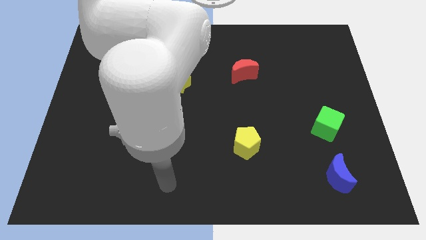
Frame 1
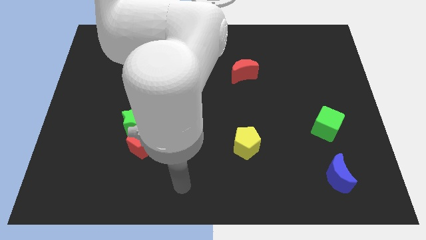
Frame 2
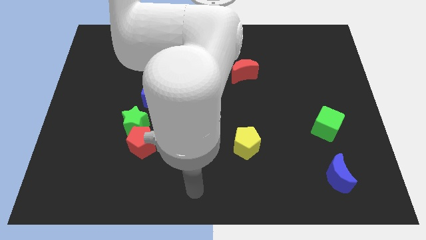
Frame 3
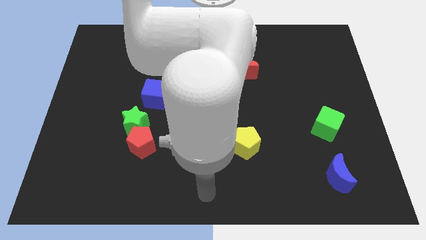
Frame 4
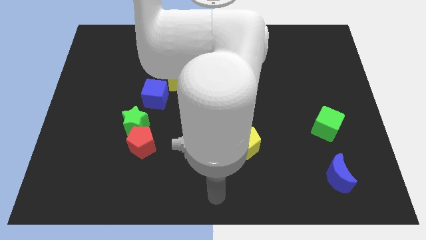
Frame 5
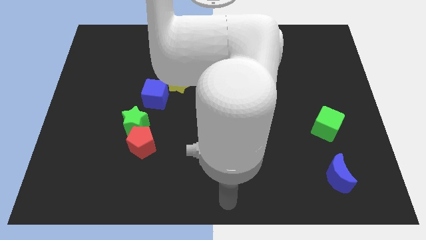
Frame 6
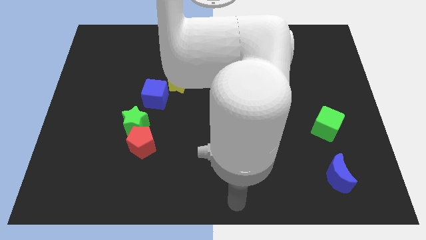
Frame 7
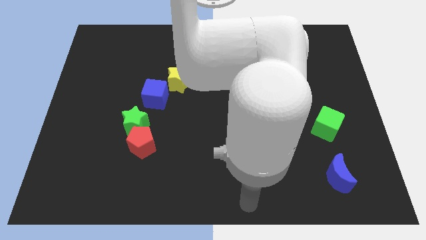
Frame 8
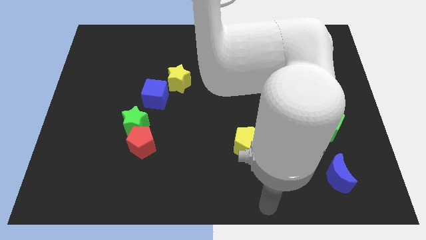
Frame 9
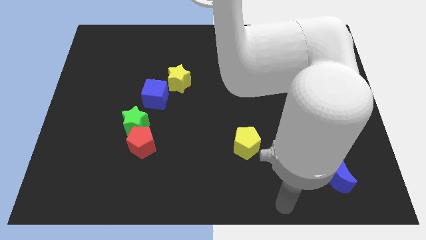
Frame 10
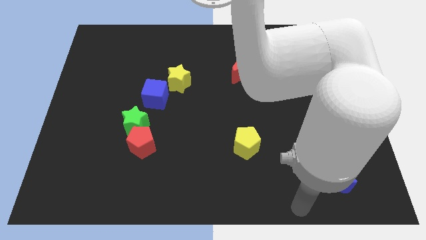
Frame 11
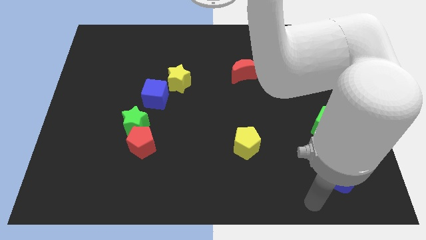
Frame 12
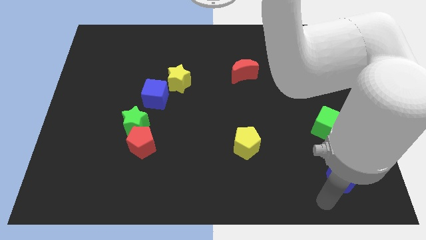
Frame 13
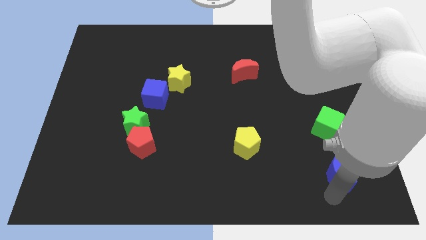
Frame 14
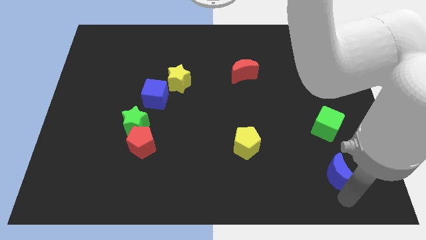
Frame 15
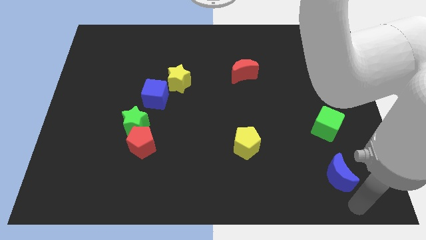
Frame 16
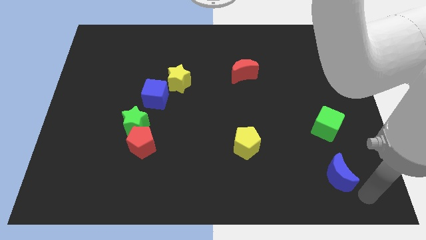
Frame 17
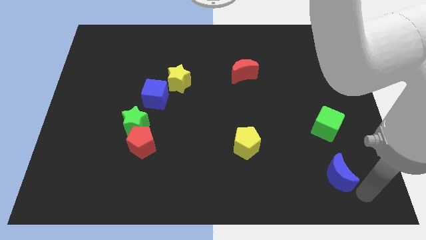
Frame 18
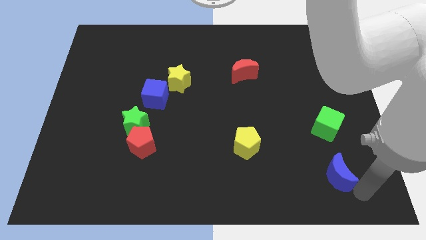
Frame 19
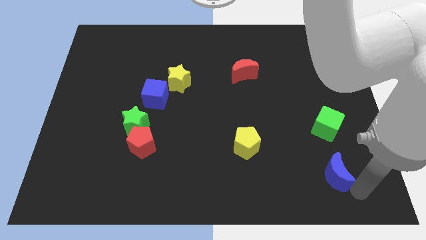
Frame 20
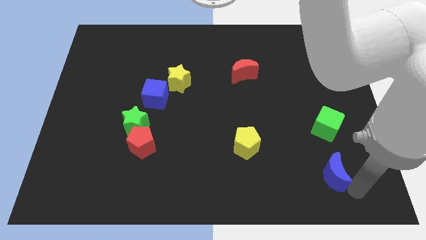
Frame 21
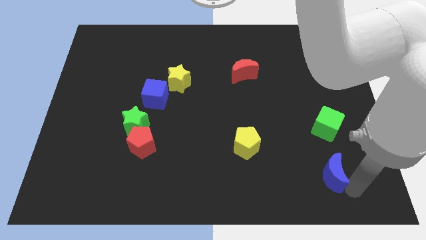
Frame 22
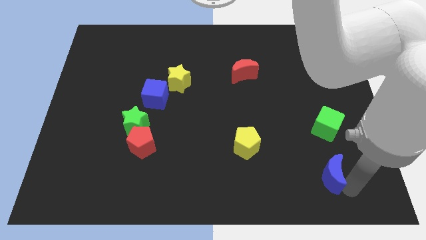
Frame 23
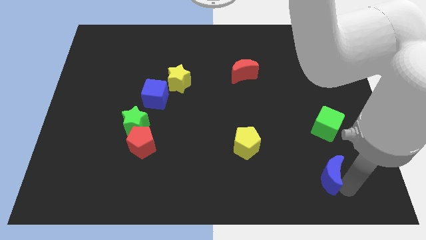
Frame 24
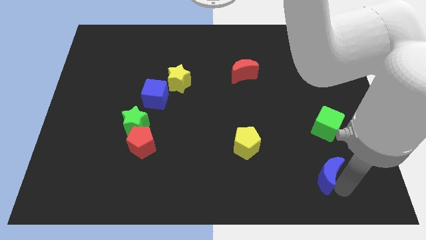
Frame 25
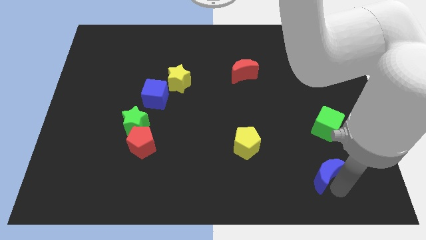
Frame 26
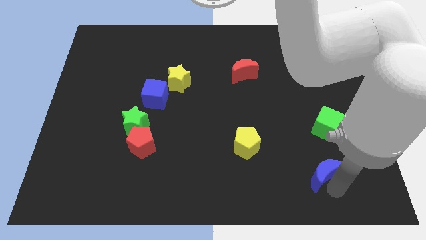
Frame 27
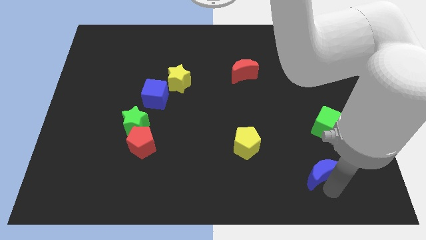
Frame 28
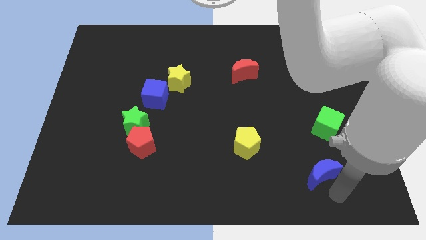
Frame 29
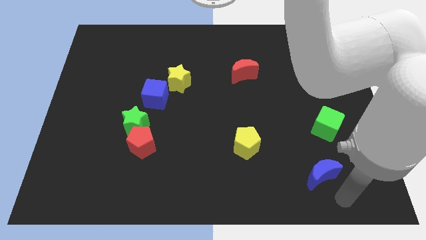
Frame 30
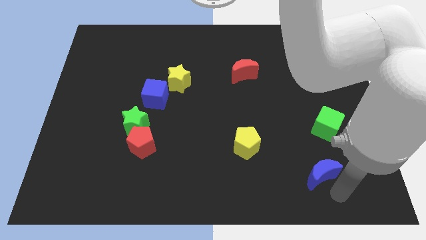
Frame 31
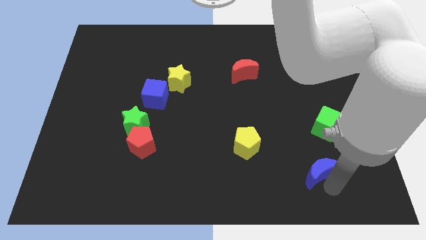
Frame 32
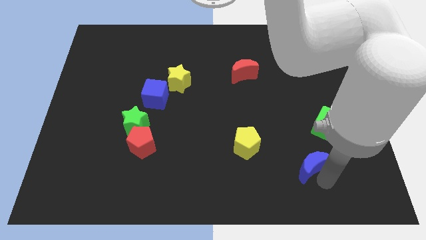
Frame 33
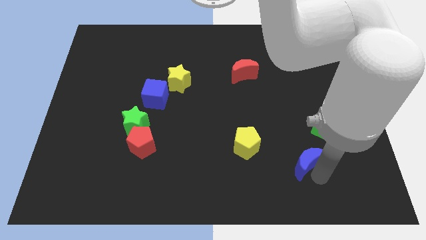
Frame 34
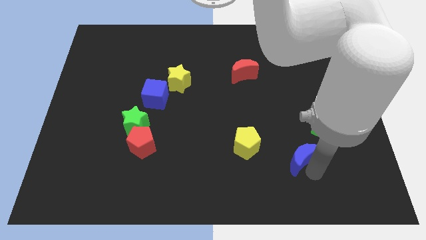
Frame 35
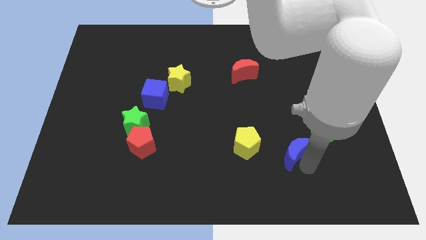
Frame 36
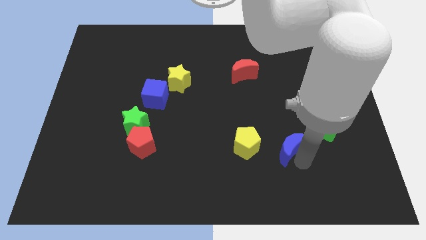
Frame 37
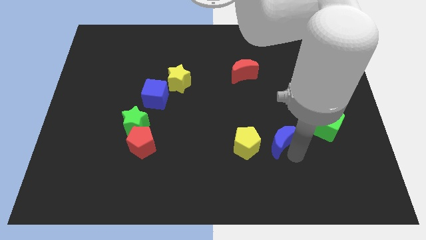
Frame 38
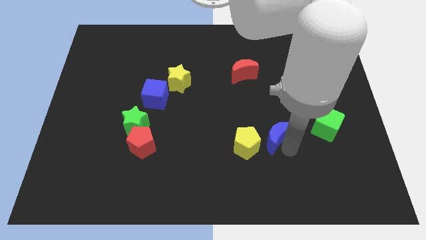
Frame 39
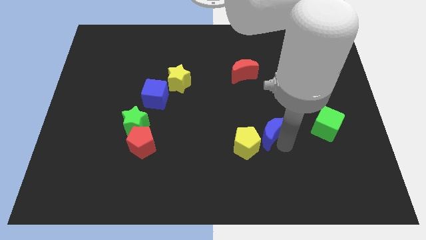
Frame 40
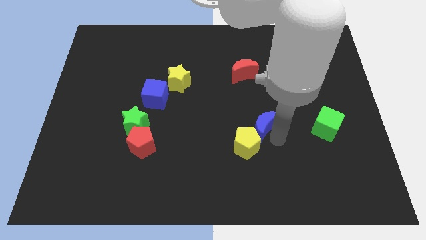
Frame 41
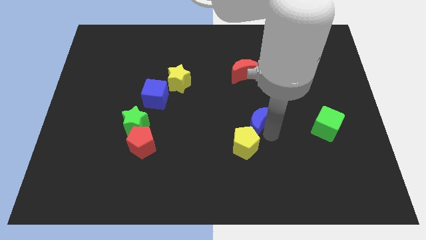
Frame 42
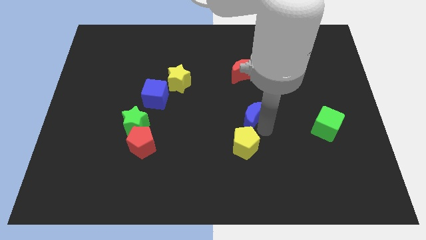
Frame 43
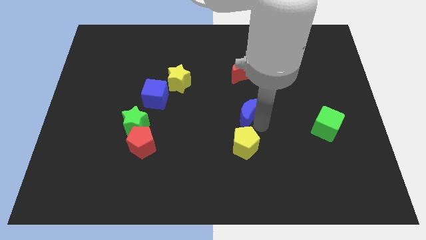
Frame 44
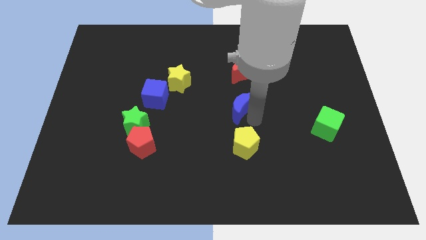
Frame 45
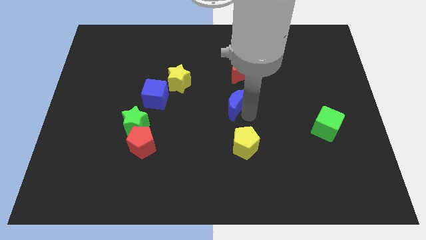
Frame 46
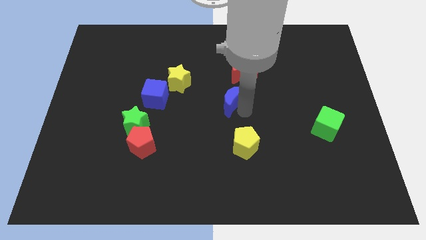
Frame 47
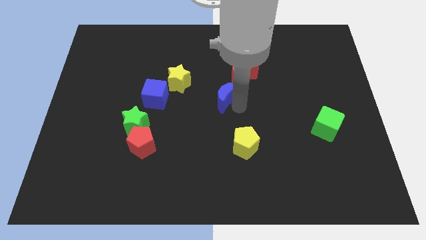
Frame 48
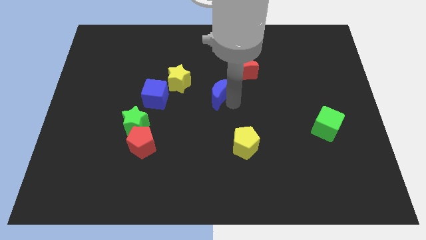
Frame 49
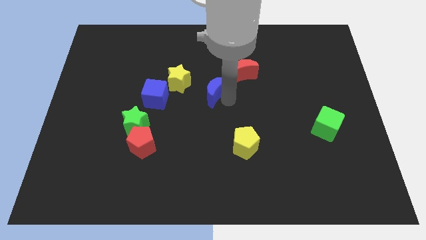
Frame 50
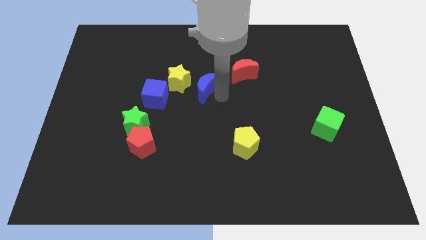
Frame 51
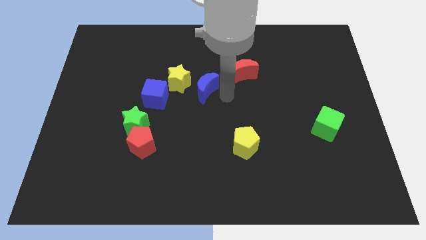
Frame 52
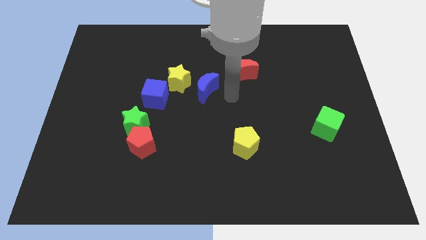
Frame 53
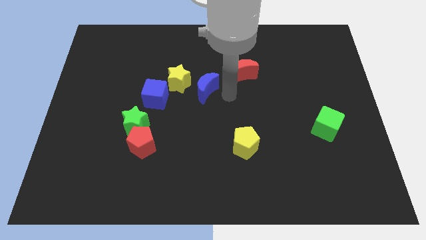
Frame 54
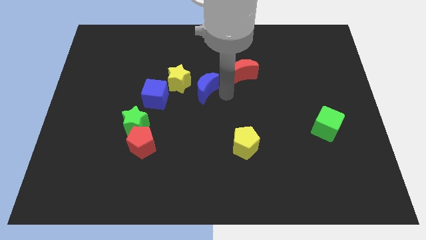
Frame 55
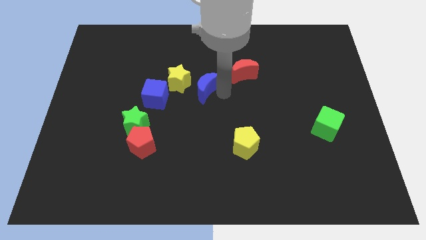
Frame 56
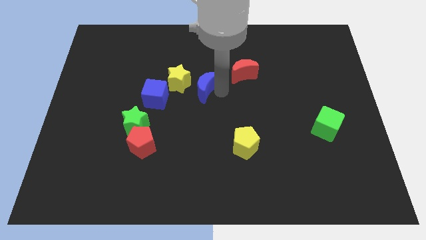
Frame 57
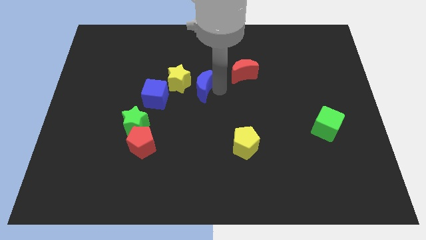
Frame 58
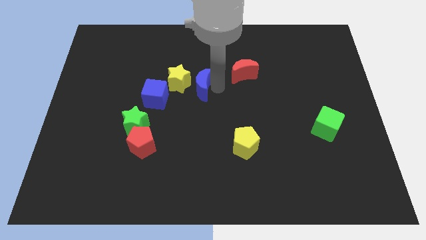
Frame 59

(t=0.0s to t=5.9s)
push the blue moon close to the yellow star
